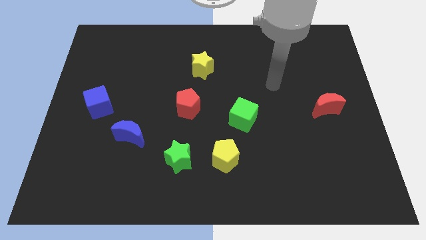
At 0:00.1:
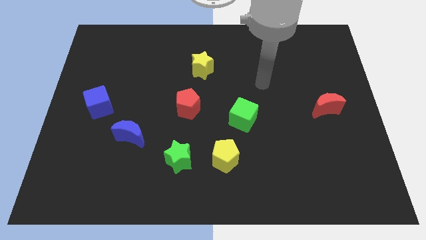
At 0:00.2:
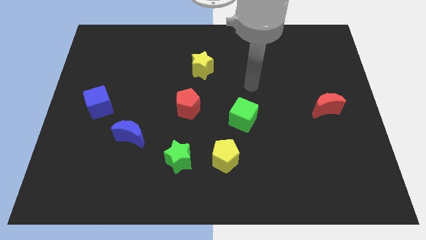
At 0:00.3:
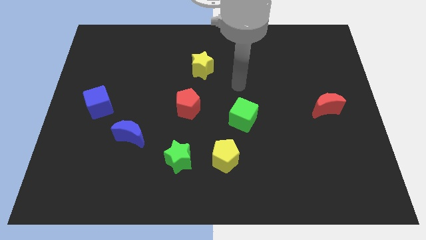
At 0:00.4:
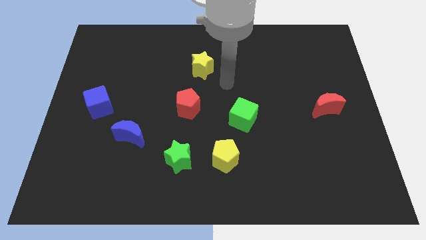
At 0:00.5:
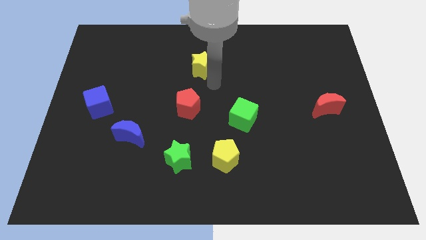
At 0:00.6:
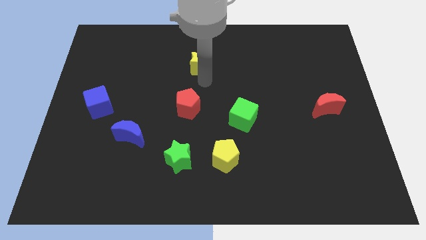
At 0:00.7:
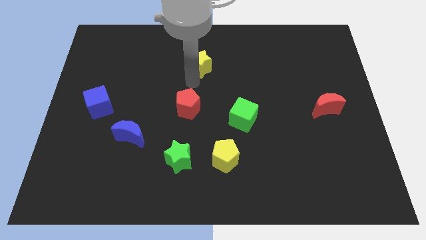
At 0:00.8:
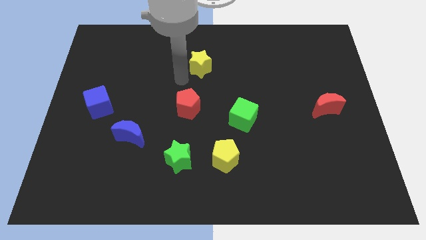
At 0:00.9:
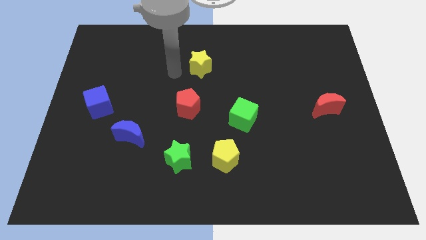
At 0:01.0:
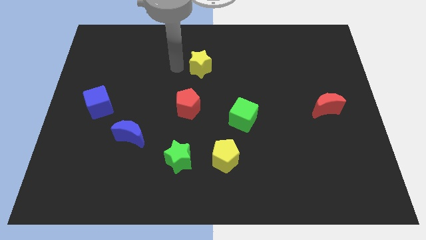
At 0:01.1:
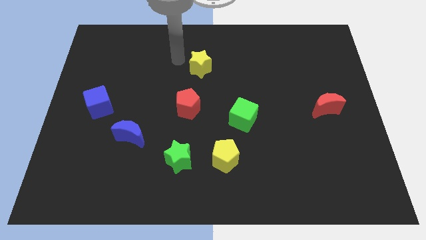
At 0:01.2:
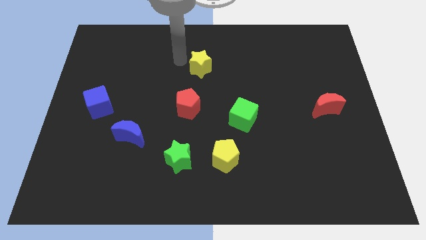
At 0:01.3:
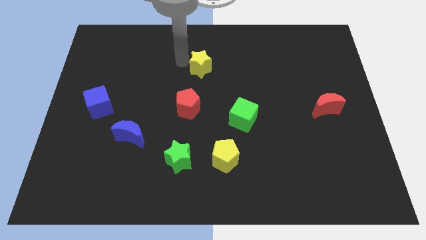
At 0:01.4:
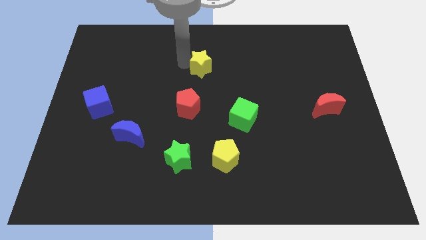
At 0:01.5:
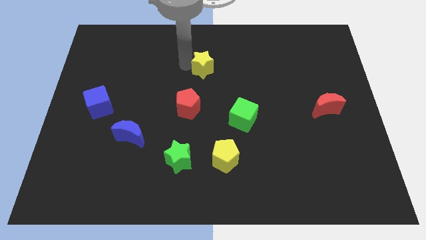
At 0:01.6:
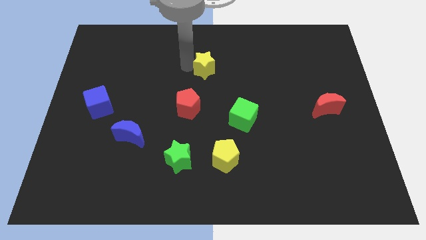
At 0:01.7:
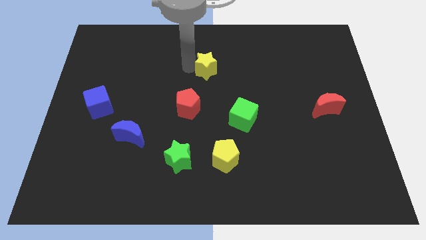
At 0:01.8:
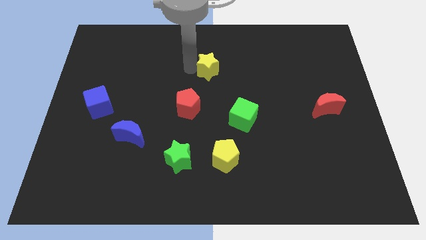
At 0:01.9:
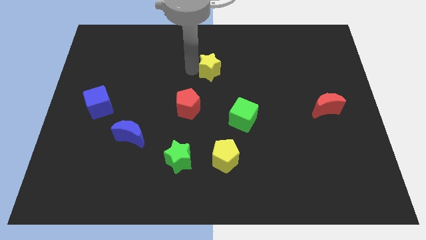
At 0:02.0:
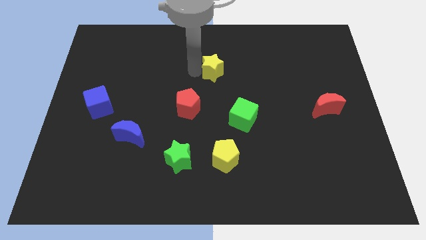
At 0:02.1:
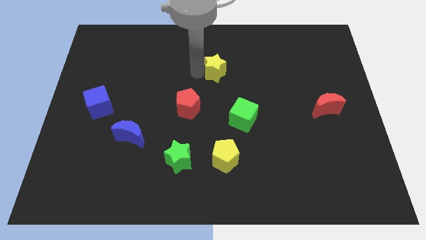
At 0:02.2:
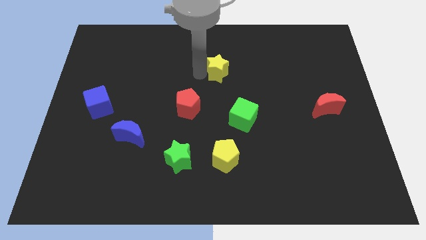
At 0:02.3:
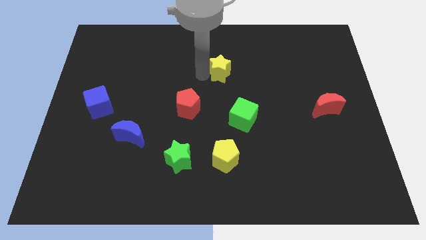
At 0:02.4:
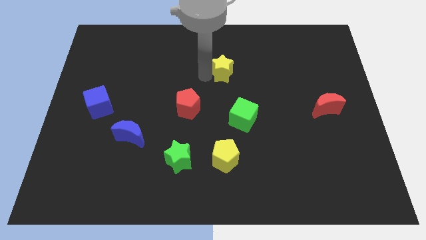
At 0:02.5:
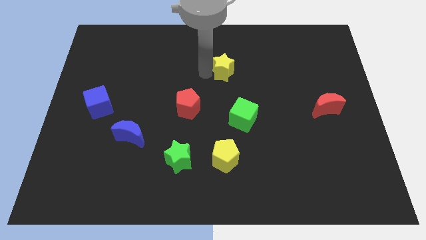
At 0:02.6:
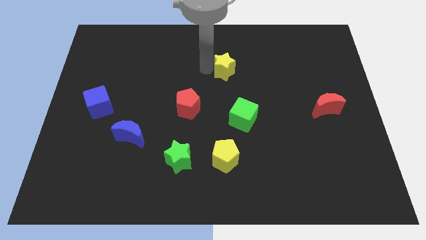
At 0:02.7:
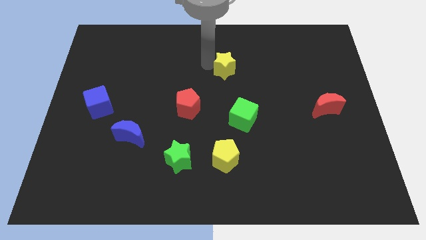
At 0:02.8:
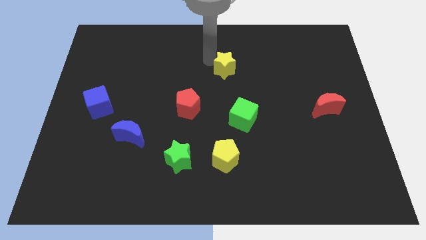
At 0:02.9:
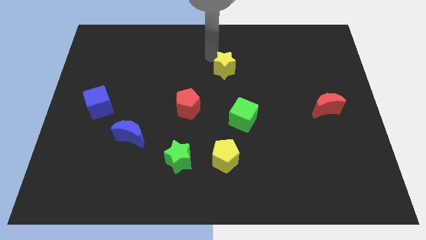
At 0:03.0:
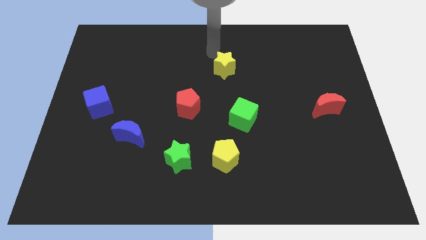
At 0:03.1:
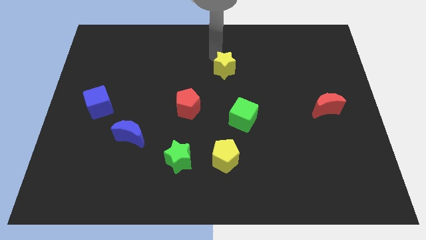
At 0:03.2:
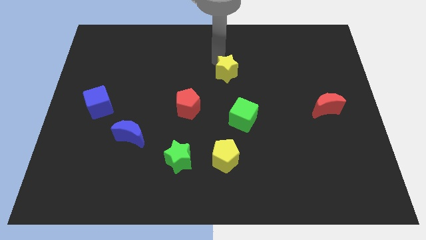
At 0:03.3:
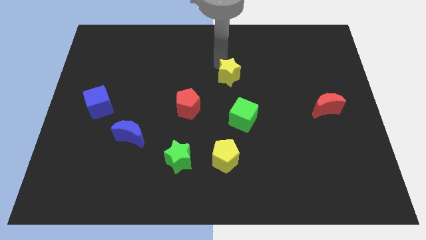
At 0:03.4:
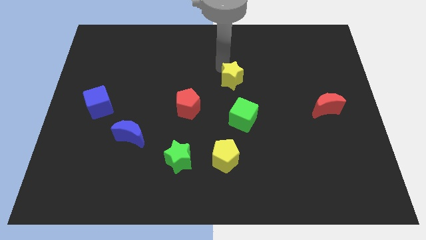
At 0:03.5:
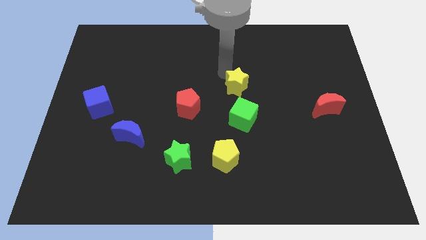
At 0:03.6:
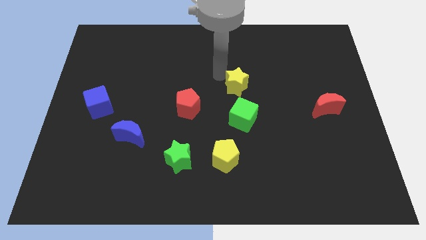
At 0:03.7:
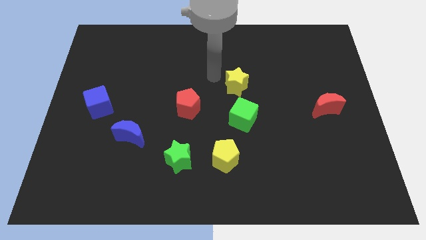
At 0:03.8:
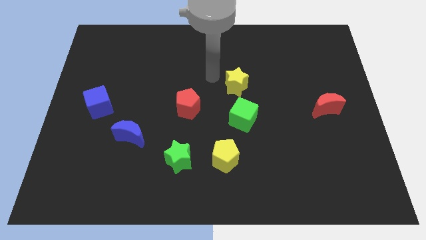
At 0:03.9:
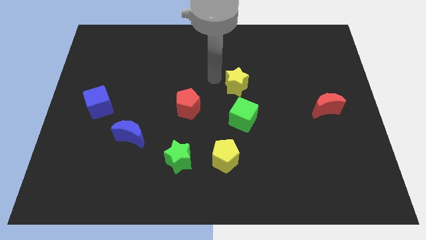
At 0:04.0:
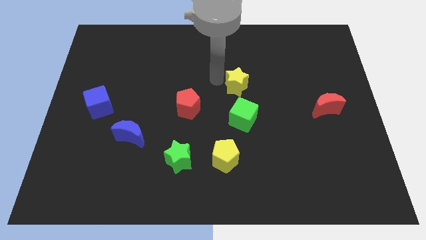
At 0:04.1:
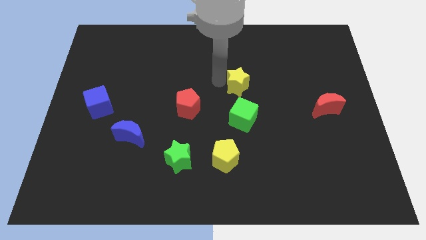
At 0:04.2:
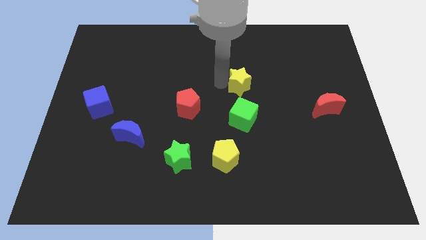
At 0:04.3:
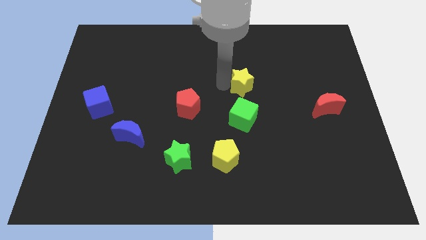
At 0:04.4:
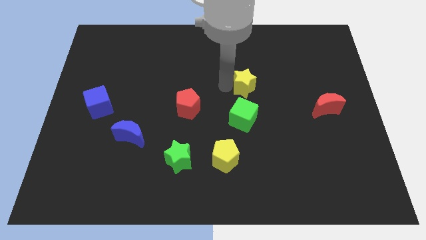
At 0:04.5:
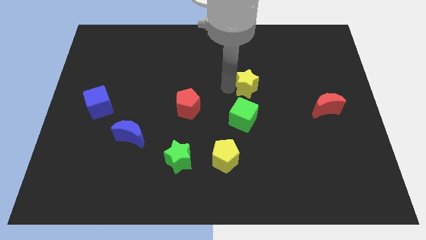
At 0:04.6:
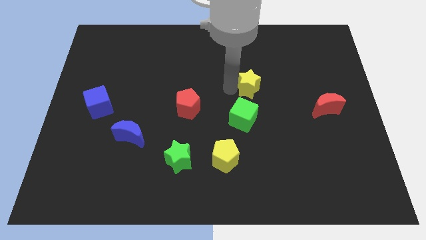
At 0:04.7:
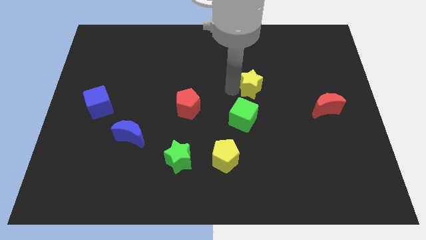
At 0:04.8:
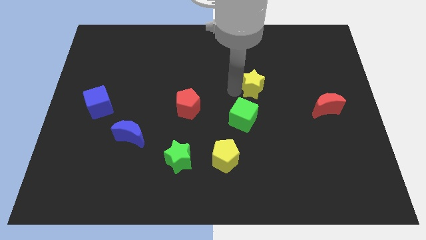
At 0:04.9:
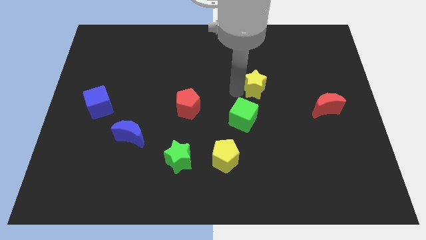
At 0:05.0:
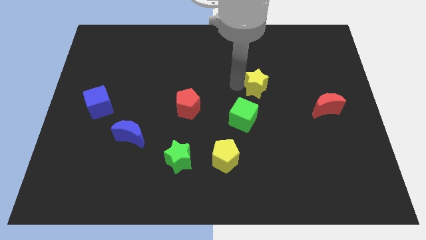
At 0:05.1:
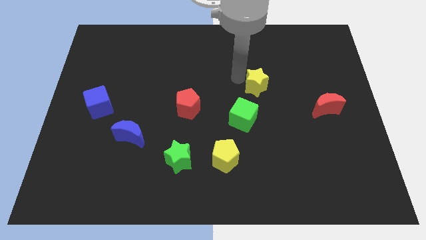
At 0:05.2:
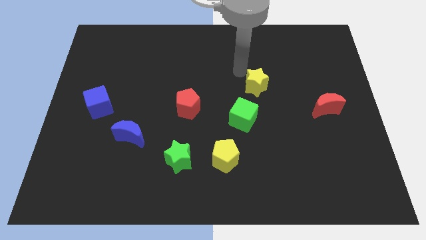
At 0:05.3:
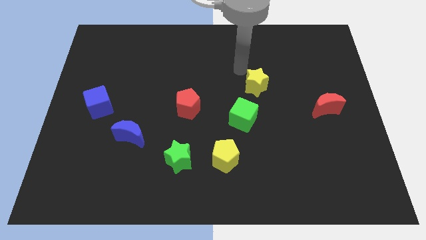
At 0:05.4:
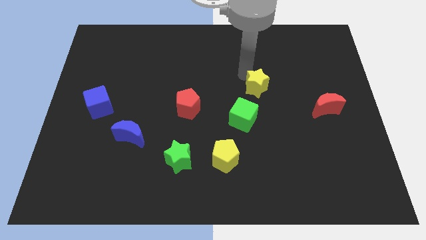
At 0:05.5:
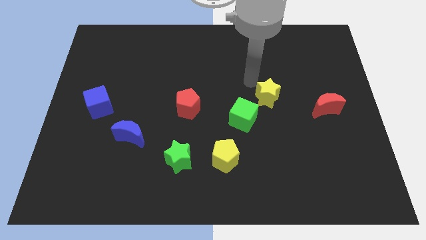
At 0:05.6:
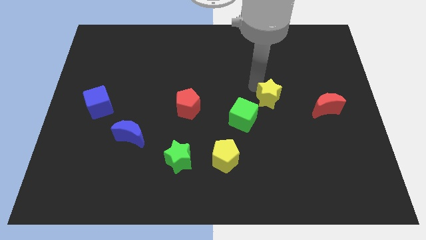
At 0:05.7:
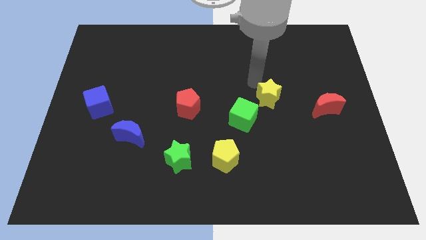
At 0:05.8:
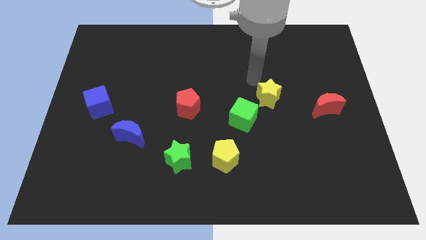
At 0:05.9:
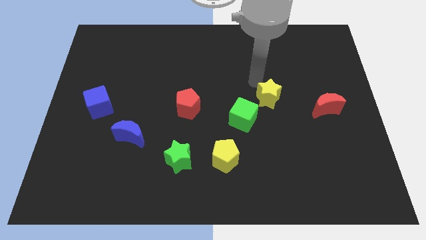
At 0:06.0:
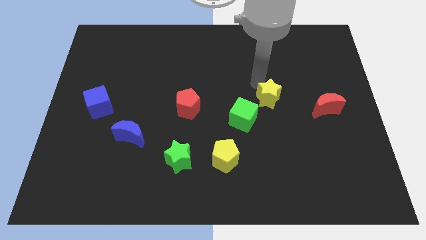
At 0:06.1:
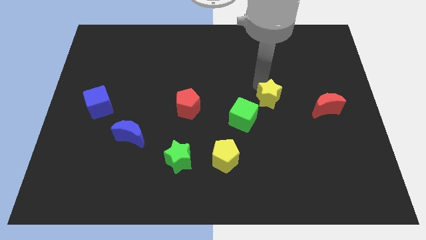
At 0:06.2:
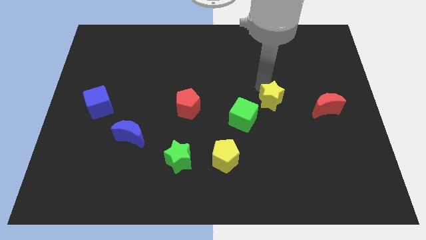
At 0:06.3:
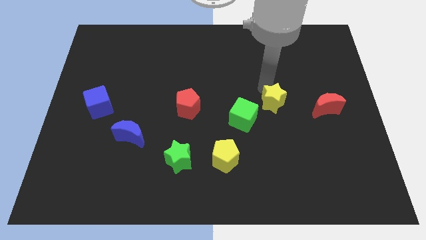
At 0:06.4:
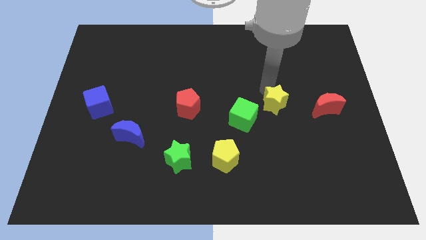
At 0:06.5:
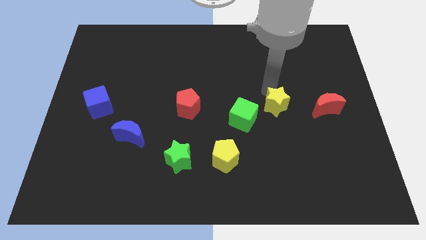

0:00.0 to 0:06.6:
move the yellow star down and right diagonally

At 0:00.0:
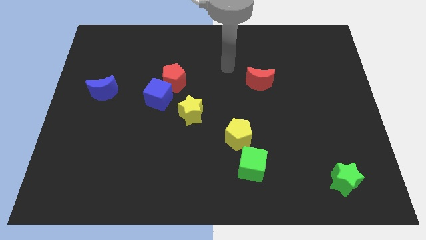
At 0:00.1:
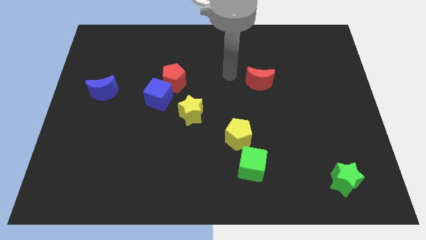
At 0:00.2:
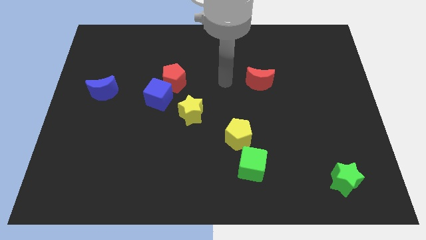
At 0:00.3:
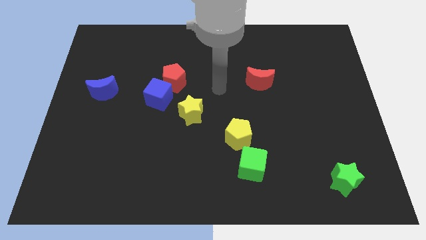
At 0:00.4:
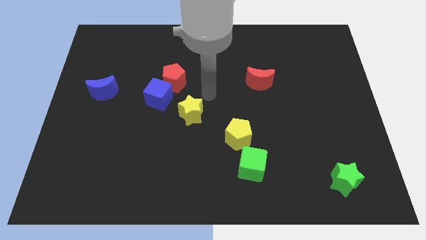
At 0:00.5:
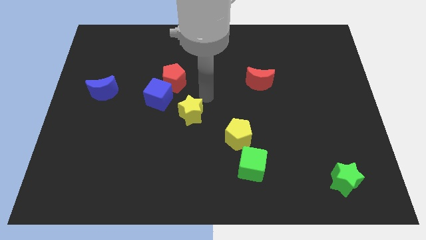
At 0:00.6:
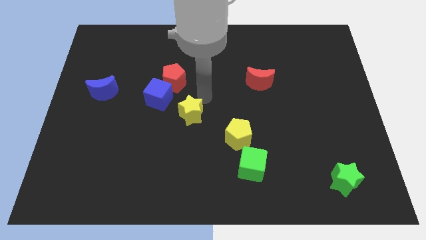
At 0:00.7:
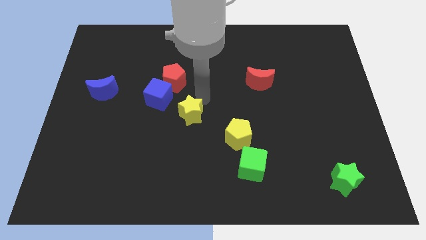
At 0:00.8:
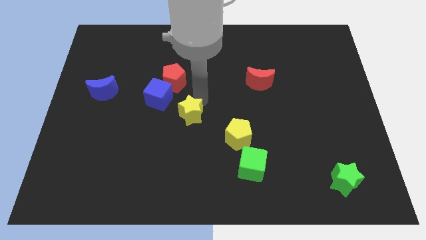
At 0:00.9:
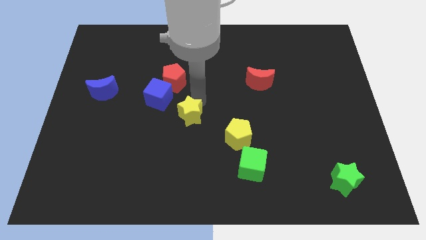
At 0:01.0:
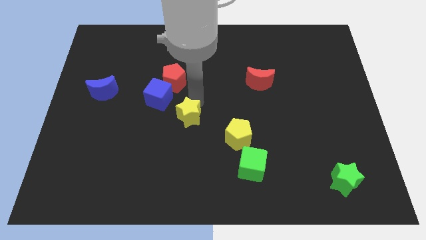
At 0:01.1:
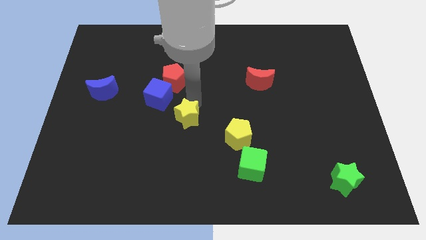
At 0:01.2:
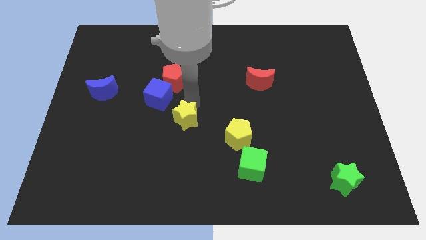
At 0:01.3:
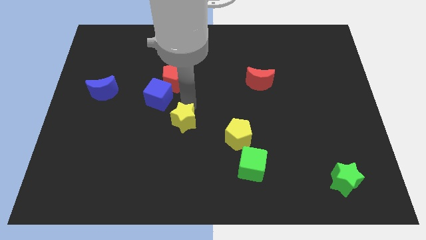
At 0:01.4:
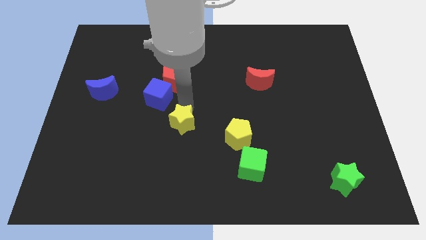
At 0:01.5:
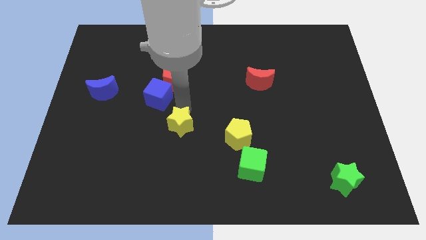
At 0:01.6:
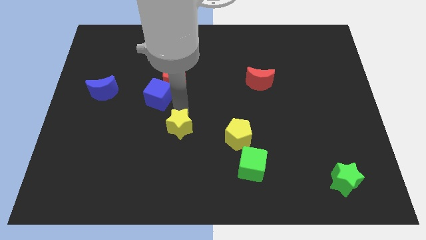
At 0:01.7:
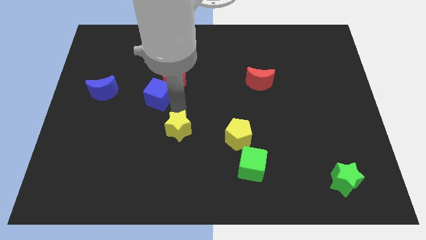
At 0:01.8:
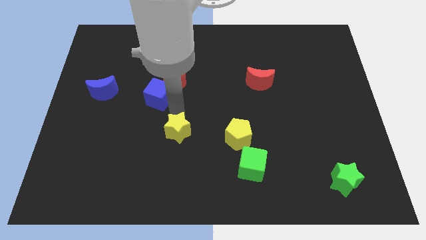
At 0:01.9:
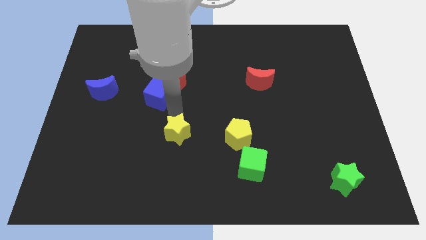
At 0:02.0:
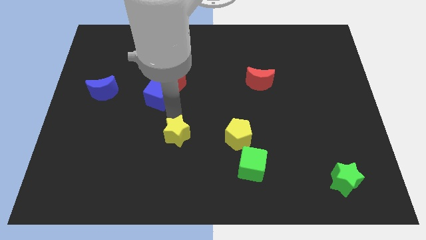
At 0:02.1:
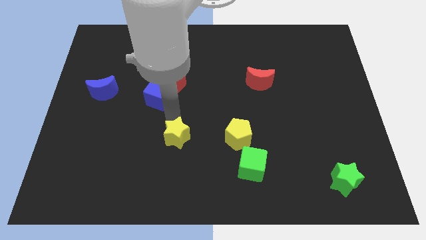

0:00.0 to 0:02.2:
slightly slide the yellow star down and to the left
